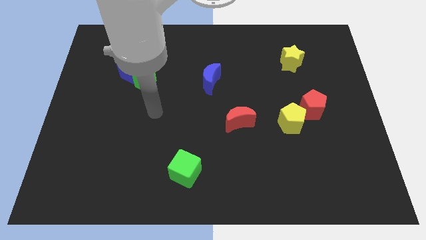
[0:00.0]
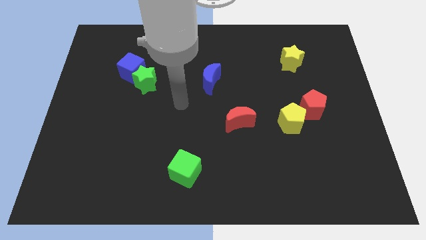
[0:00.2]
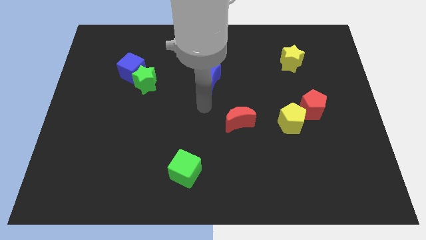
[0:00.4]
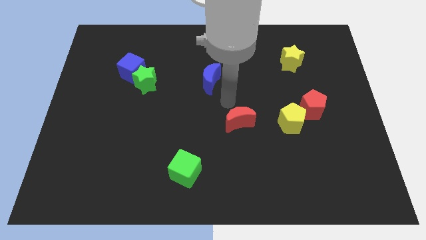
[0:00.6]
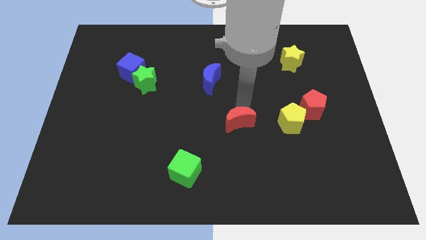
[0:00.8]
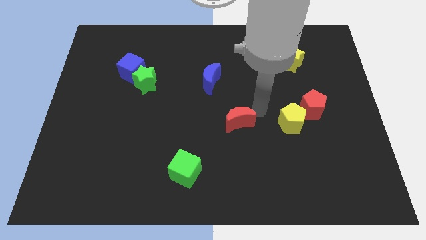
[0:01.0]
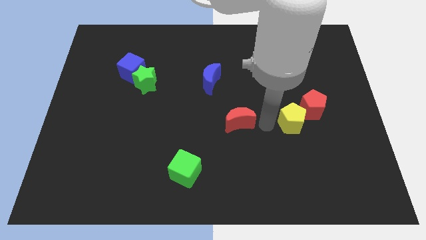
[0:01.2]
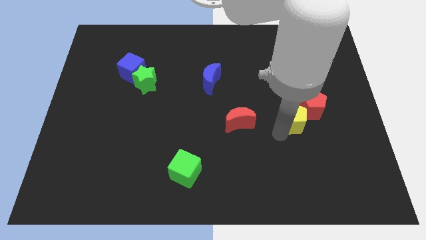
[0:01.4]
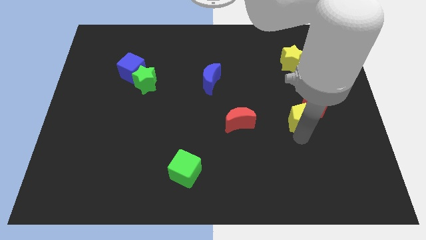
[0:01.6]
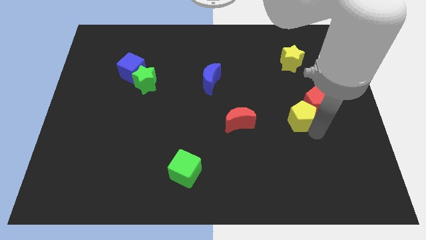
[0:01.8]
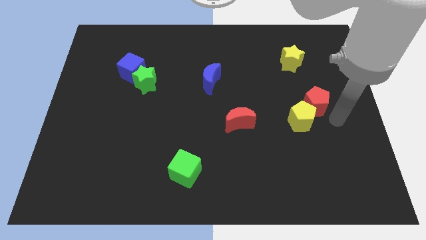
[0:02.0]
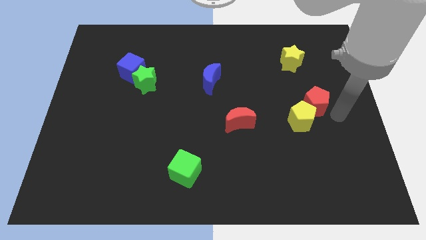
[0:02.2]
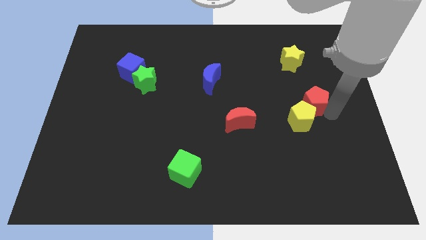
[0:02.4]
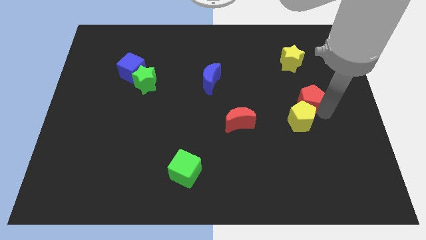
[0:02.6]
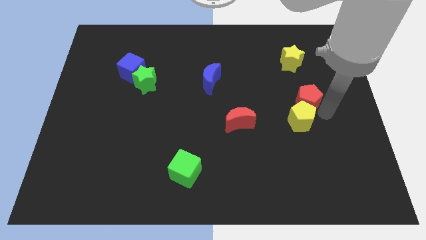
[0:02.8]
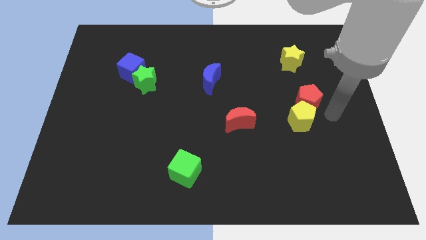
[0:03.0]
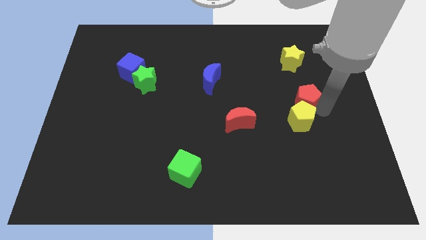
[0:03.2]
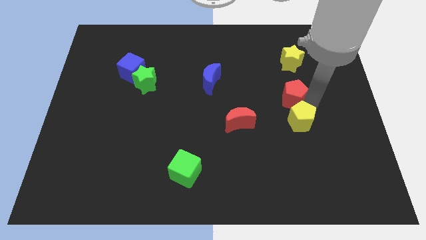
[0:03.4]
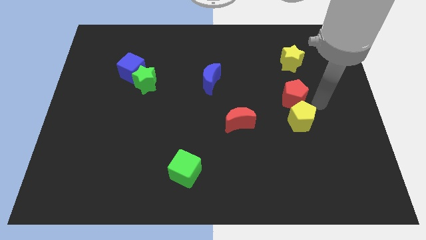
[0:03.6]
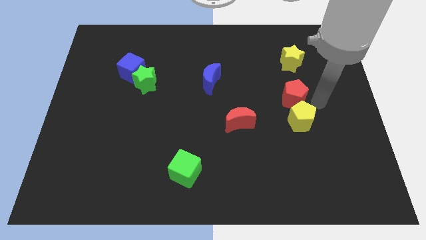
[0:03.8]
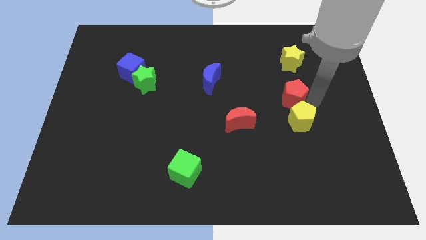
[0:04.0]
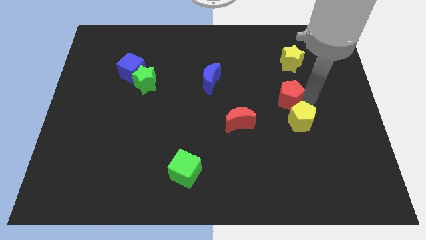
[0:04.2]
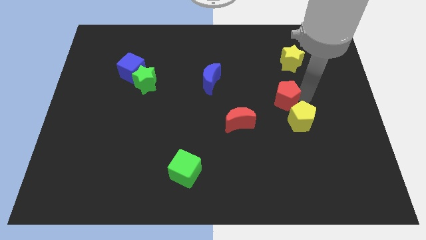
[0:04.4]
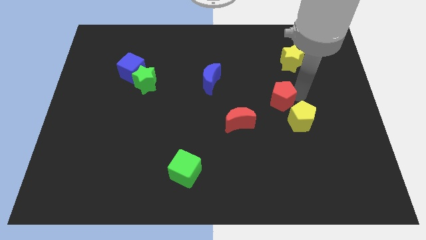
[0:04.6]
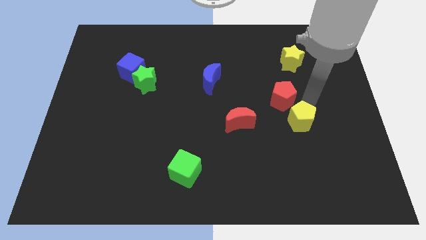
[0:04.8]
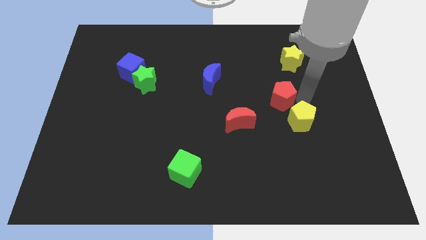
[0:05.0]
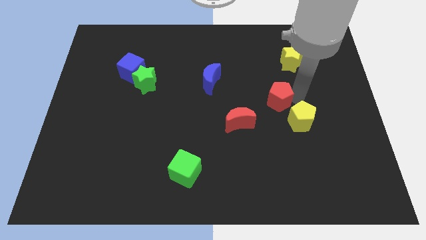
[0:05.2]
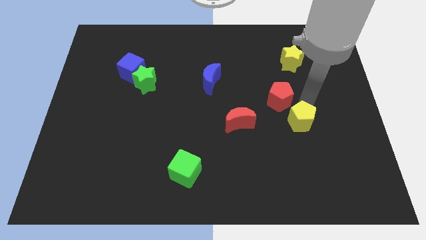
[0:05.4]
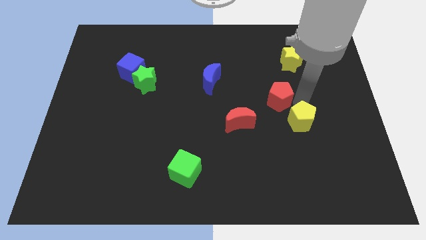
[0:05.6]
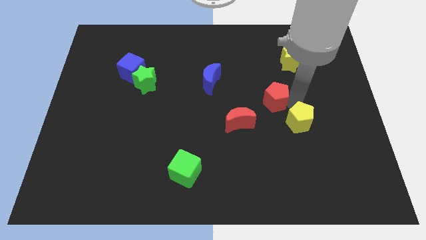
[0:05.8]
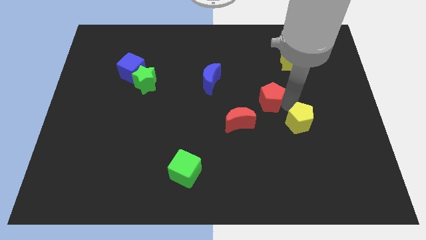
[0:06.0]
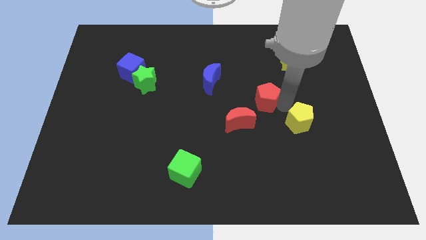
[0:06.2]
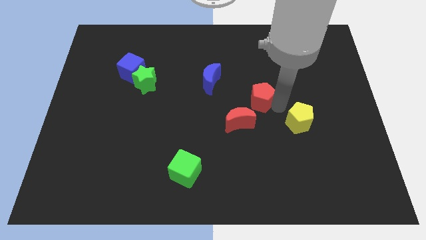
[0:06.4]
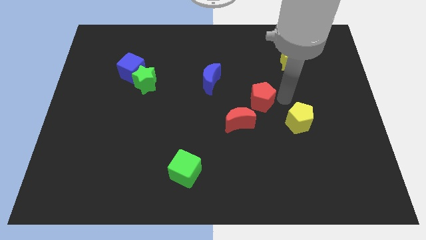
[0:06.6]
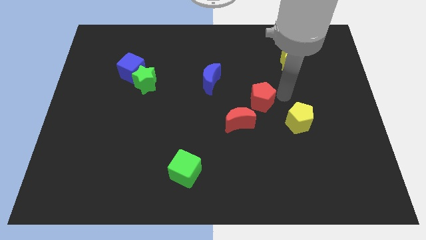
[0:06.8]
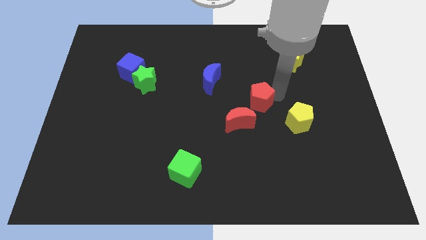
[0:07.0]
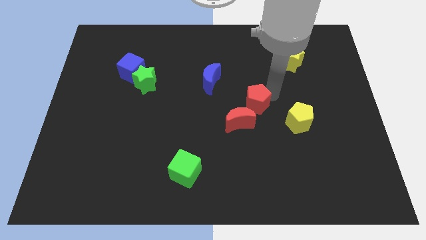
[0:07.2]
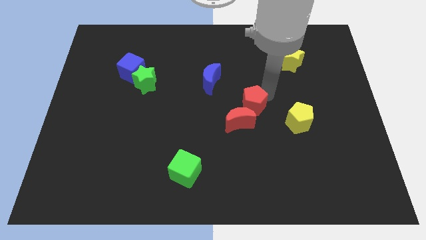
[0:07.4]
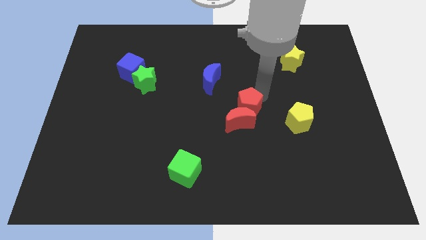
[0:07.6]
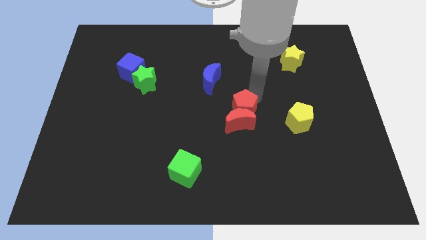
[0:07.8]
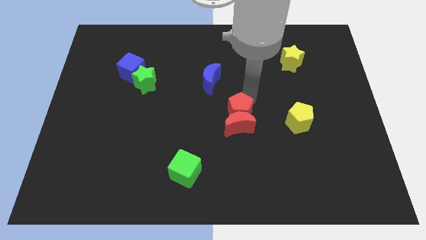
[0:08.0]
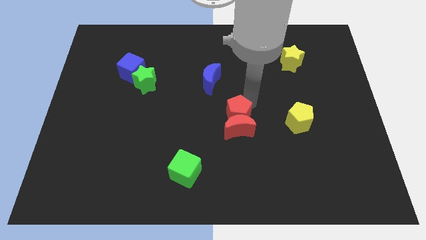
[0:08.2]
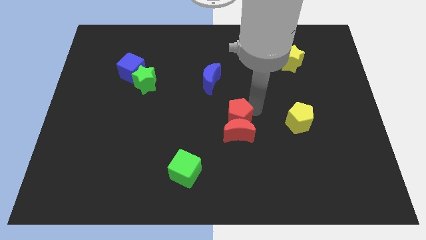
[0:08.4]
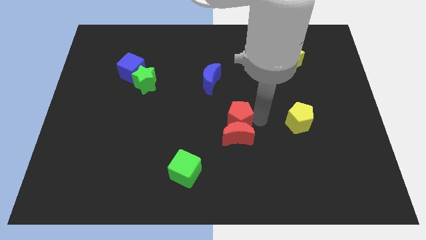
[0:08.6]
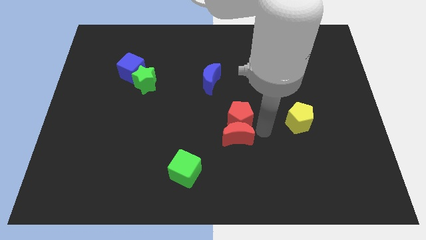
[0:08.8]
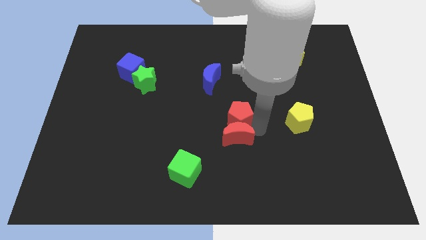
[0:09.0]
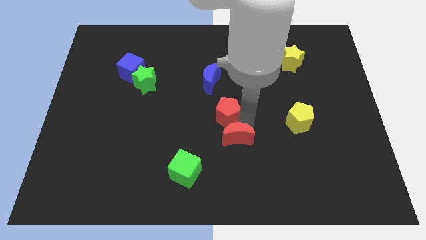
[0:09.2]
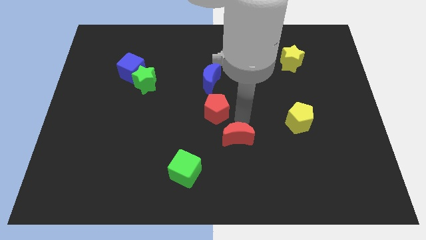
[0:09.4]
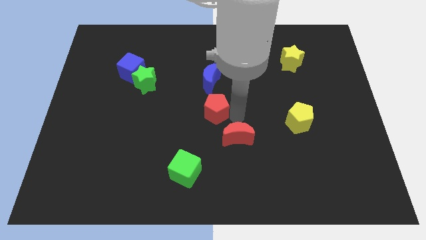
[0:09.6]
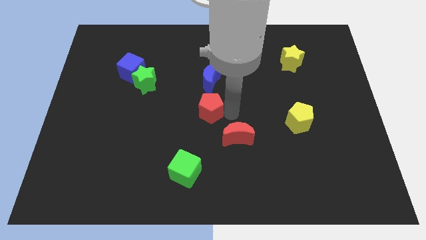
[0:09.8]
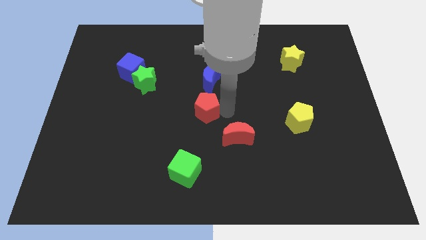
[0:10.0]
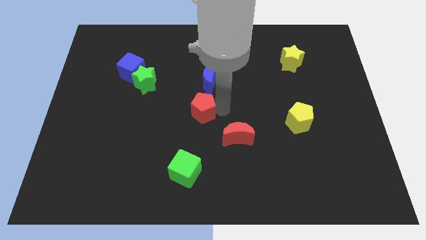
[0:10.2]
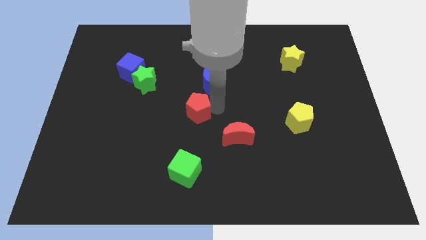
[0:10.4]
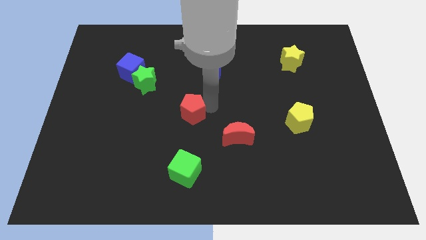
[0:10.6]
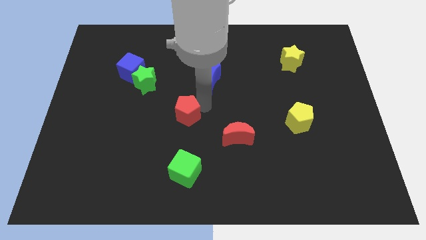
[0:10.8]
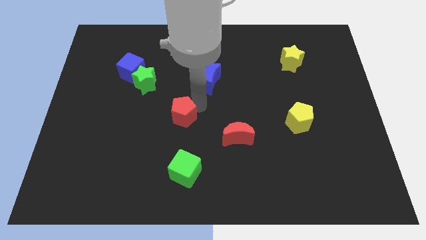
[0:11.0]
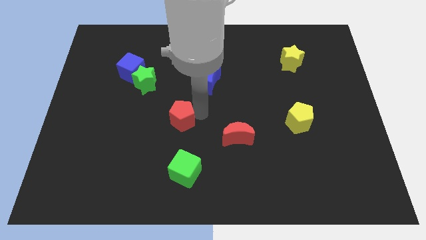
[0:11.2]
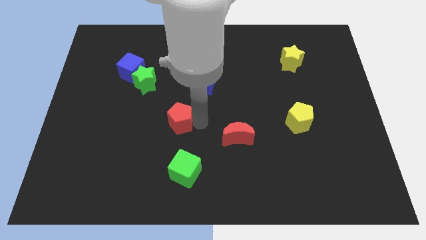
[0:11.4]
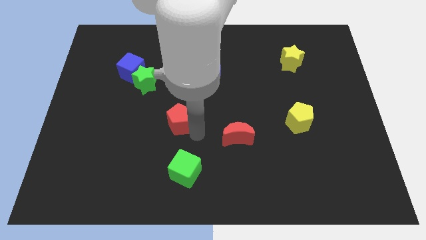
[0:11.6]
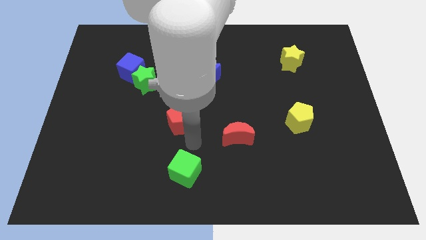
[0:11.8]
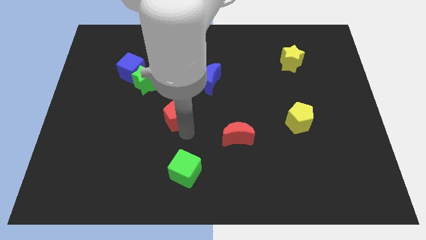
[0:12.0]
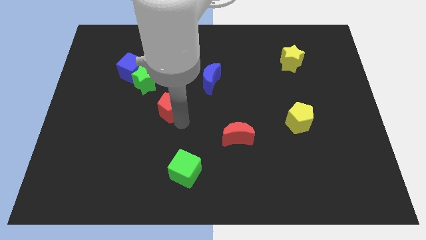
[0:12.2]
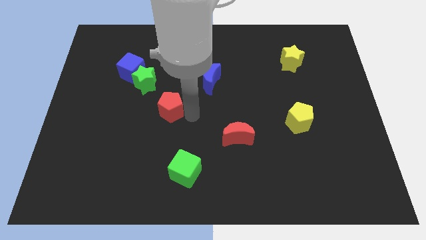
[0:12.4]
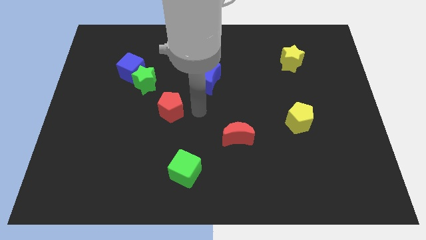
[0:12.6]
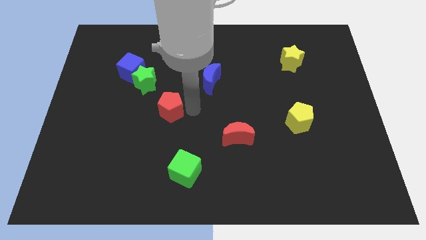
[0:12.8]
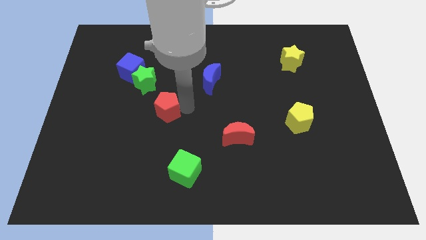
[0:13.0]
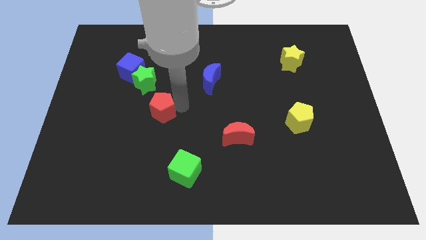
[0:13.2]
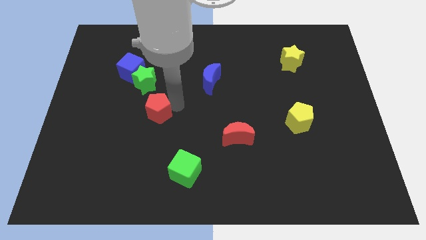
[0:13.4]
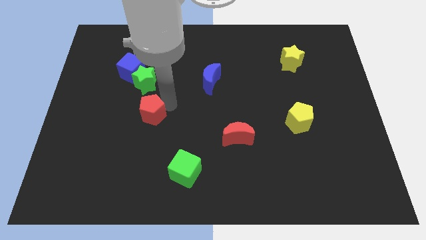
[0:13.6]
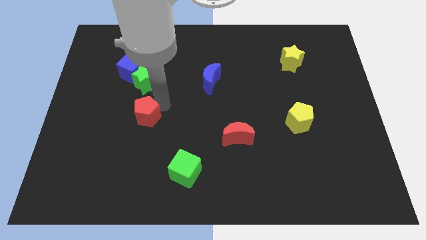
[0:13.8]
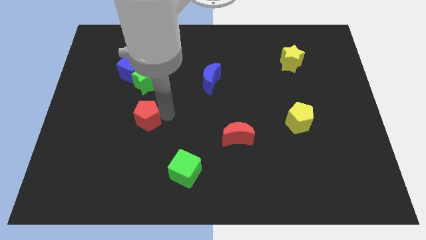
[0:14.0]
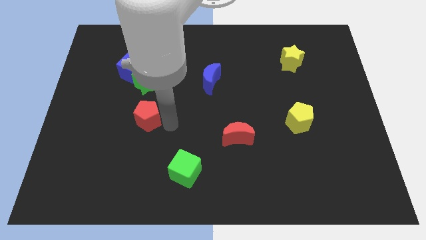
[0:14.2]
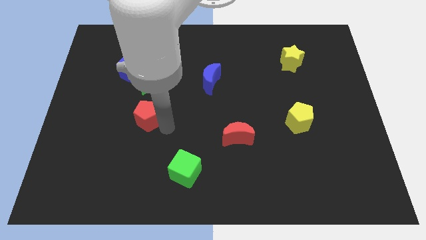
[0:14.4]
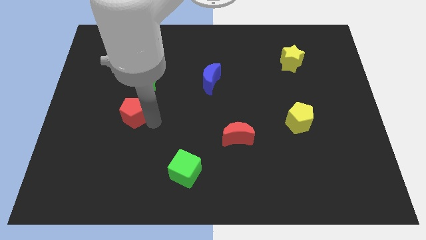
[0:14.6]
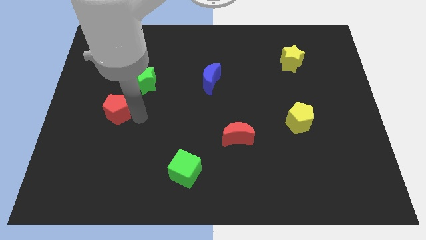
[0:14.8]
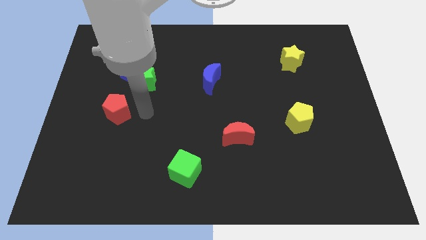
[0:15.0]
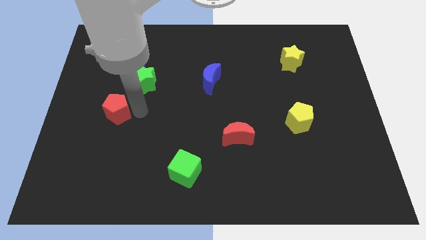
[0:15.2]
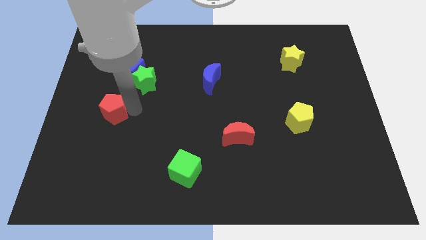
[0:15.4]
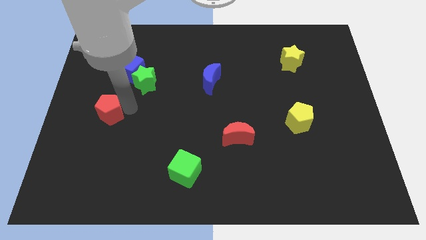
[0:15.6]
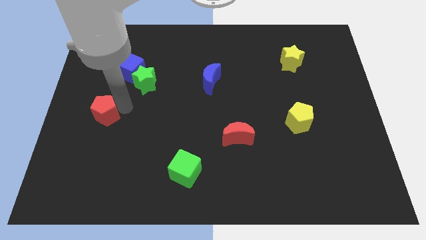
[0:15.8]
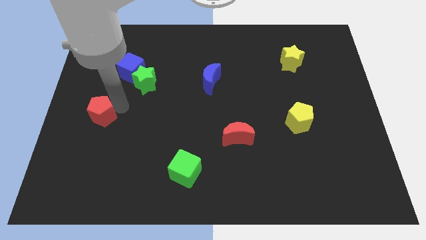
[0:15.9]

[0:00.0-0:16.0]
put the red pentagon to the left side
